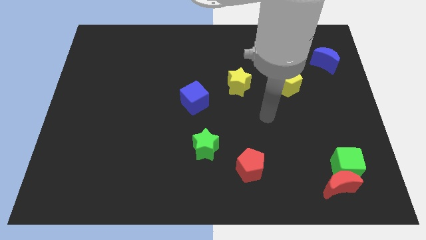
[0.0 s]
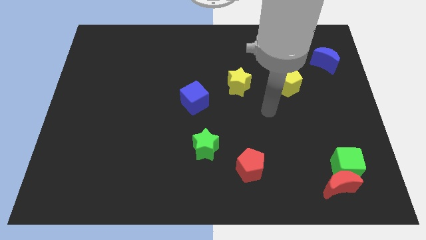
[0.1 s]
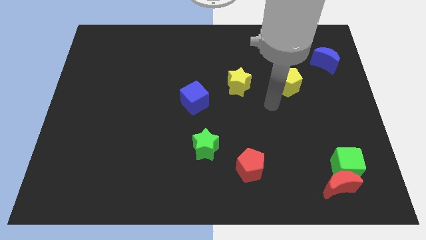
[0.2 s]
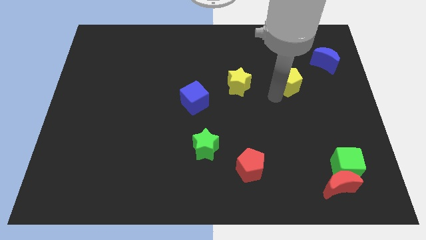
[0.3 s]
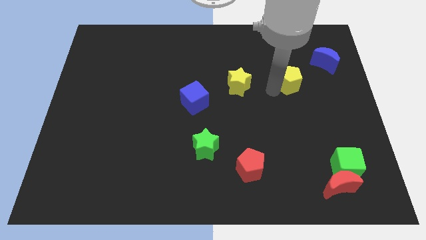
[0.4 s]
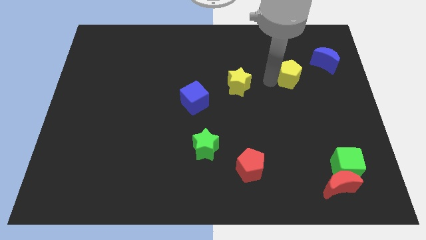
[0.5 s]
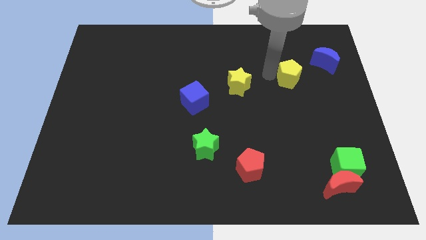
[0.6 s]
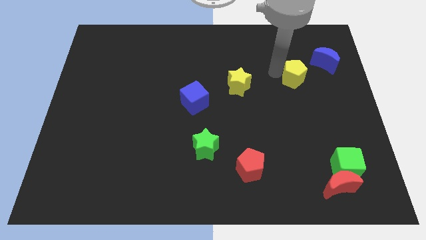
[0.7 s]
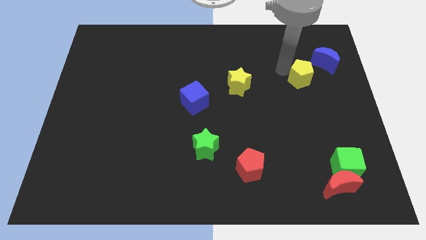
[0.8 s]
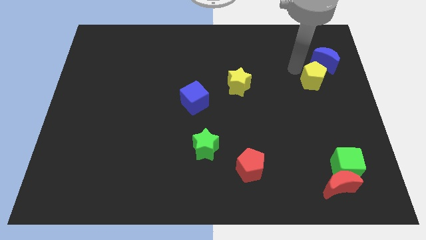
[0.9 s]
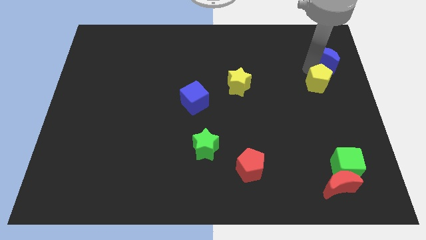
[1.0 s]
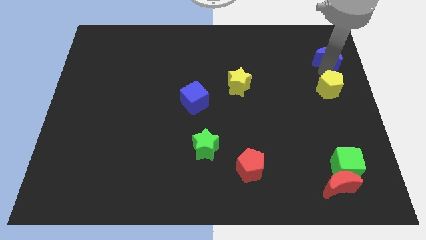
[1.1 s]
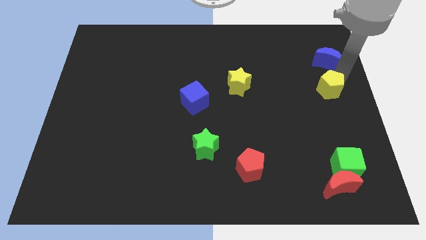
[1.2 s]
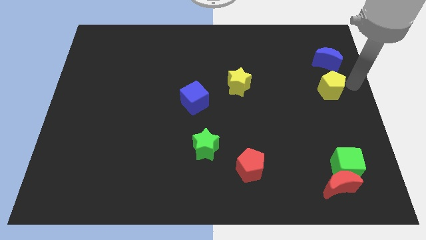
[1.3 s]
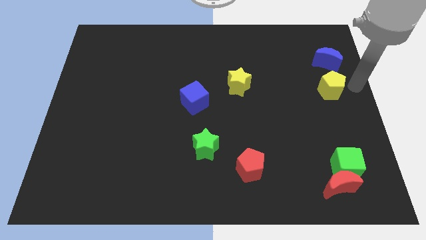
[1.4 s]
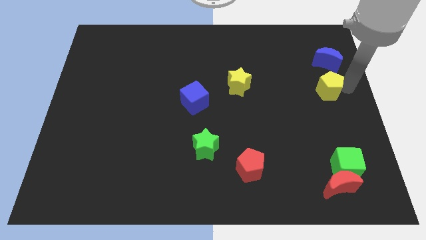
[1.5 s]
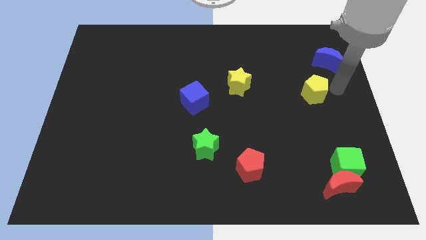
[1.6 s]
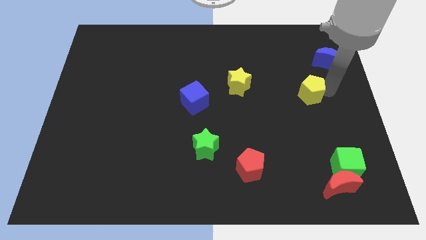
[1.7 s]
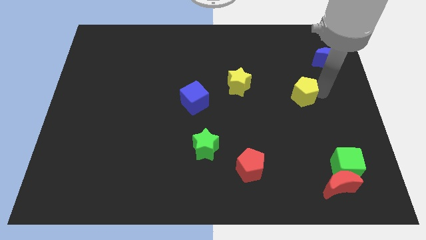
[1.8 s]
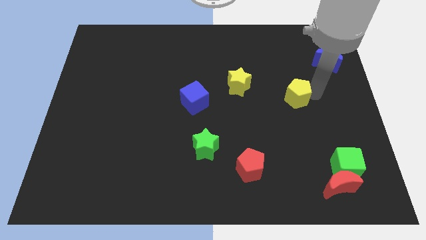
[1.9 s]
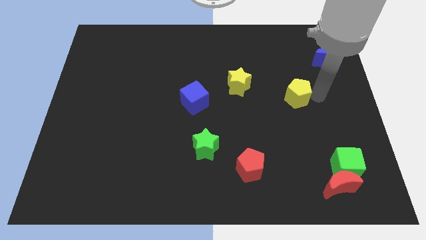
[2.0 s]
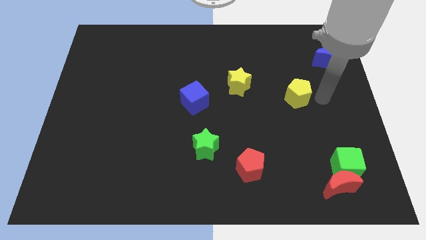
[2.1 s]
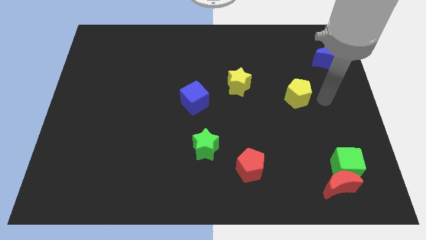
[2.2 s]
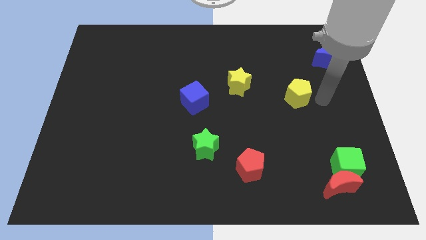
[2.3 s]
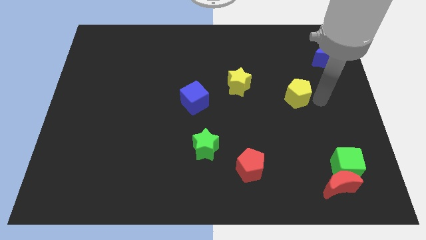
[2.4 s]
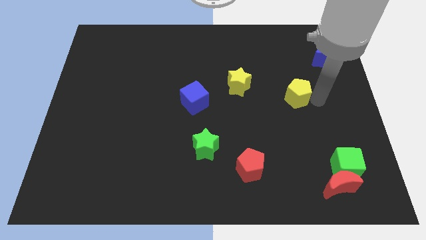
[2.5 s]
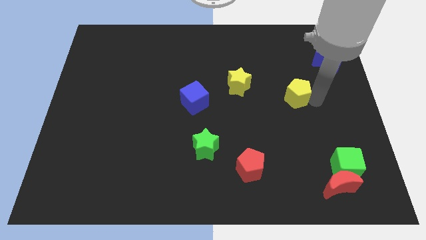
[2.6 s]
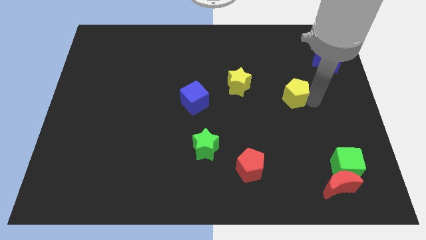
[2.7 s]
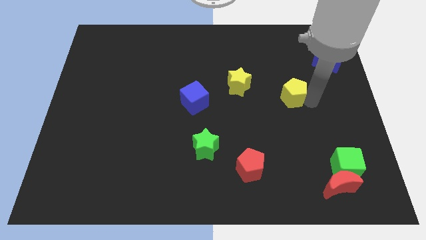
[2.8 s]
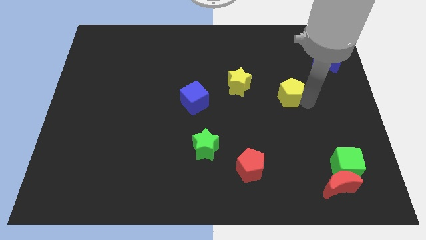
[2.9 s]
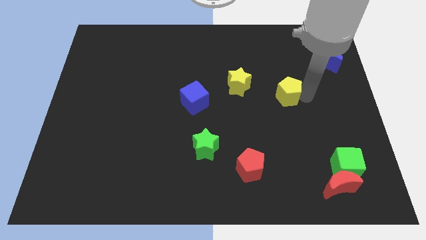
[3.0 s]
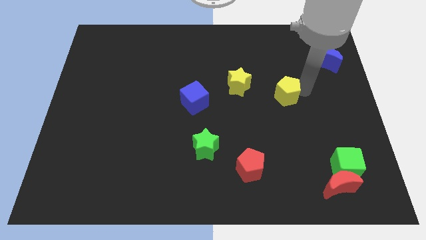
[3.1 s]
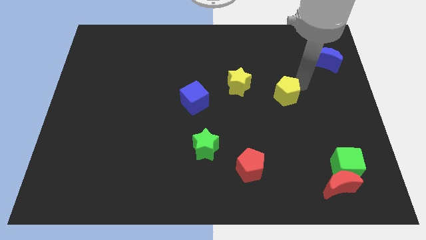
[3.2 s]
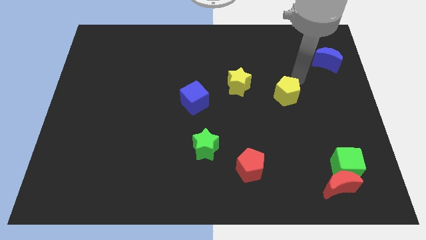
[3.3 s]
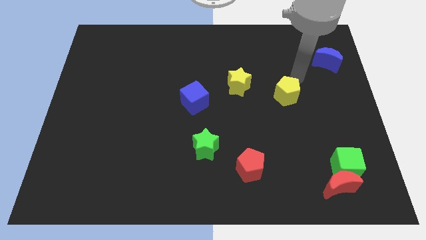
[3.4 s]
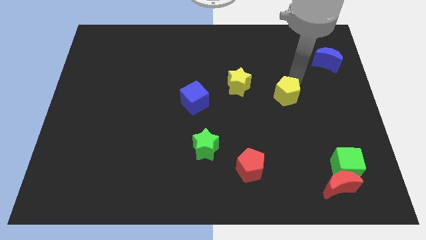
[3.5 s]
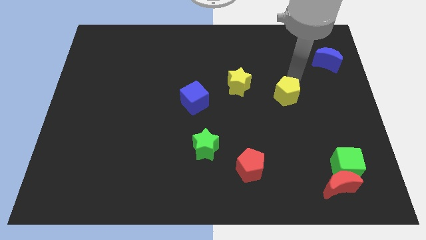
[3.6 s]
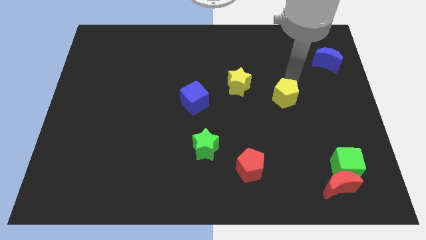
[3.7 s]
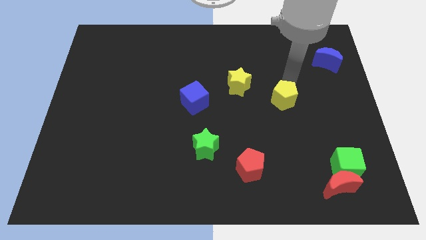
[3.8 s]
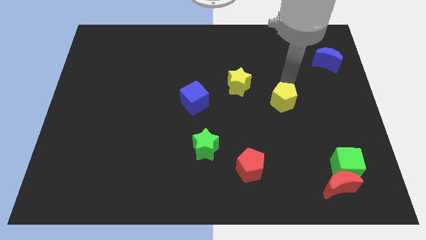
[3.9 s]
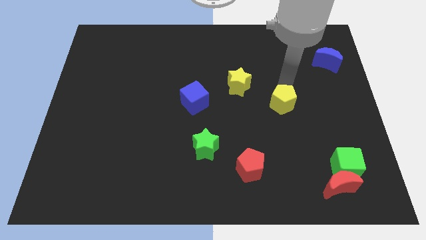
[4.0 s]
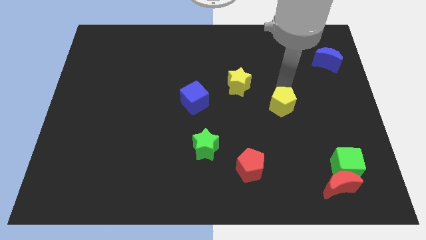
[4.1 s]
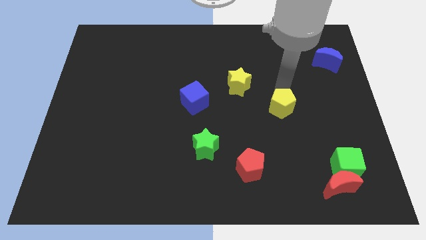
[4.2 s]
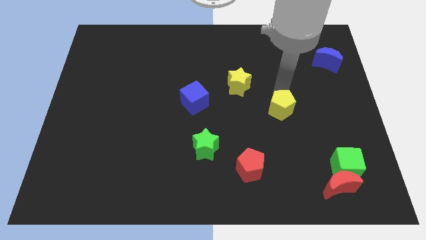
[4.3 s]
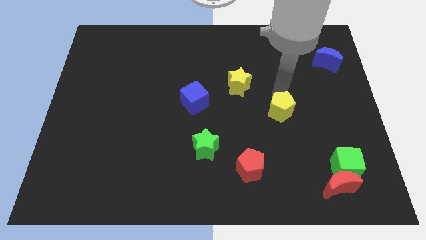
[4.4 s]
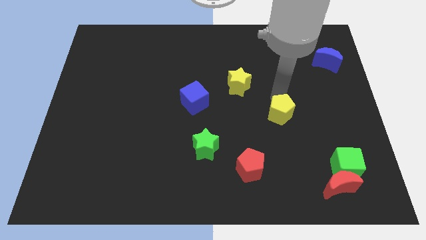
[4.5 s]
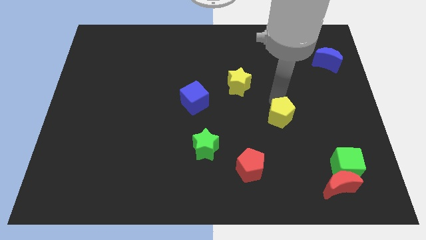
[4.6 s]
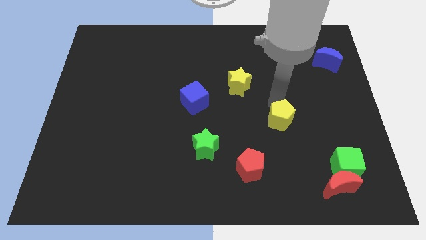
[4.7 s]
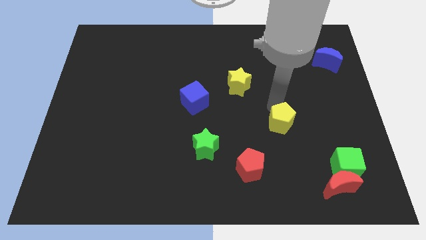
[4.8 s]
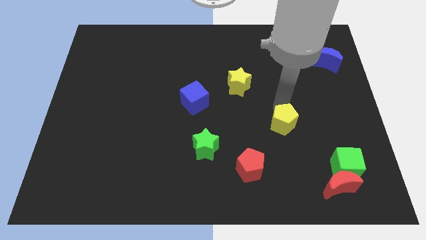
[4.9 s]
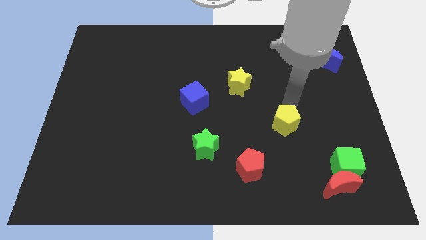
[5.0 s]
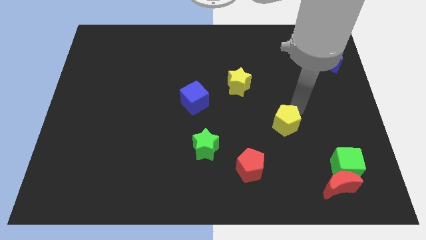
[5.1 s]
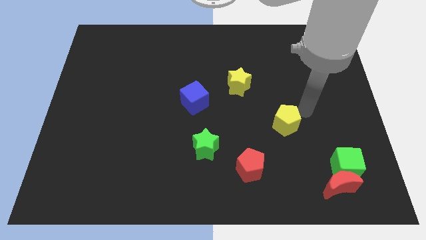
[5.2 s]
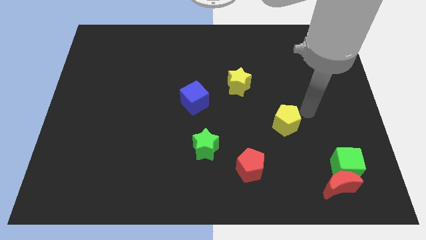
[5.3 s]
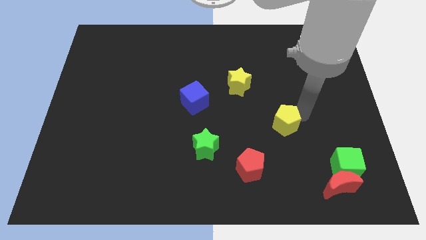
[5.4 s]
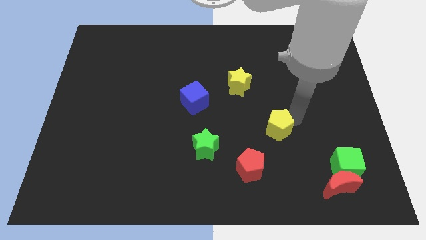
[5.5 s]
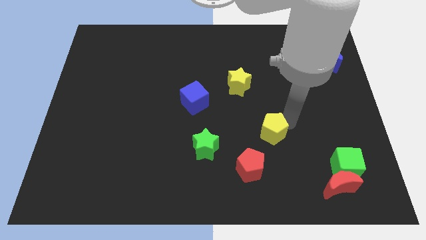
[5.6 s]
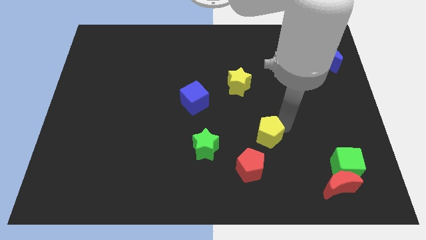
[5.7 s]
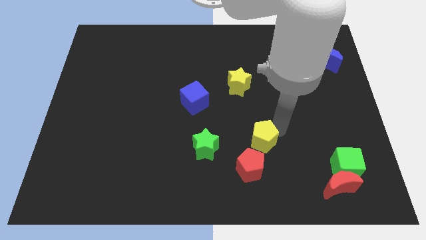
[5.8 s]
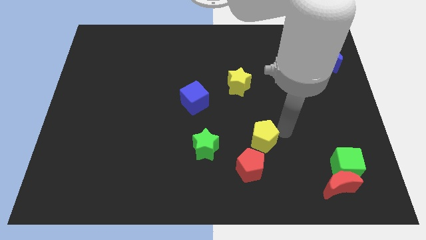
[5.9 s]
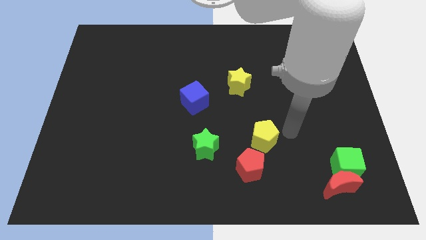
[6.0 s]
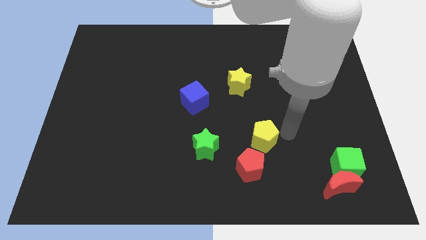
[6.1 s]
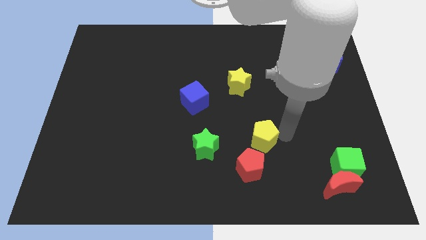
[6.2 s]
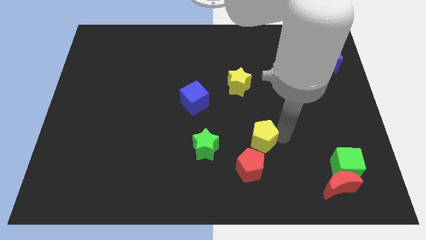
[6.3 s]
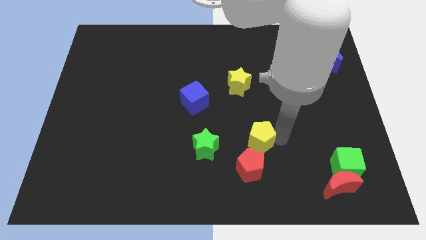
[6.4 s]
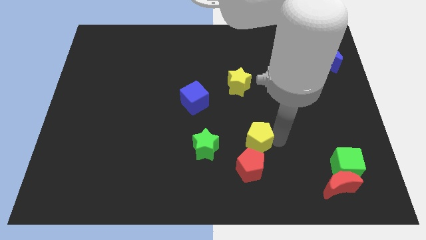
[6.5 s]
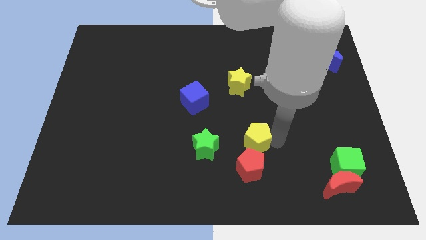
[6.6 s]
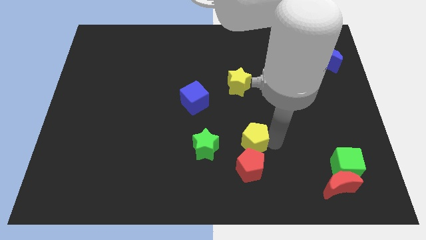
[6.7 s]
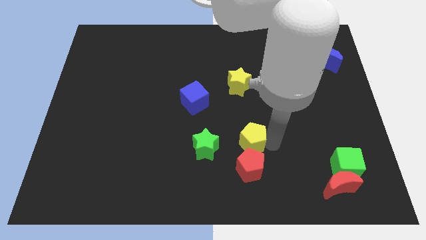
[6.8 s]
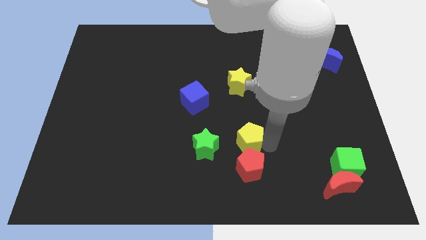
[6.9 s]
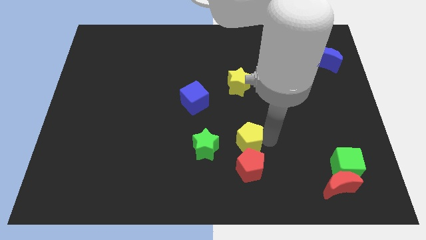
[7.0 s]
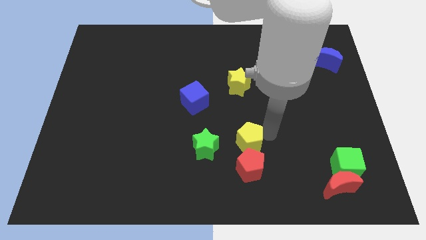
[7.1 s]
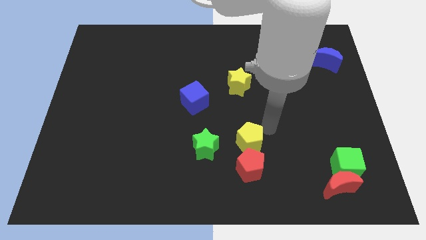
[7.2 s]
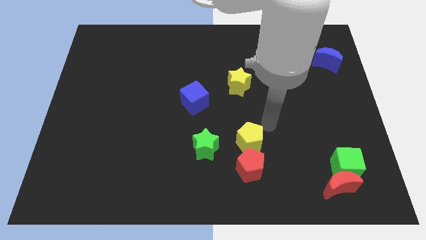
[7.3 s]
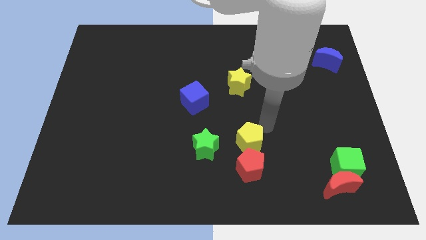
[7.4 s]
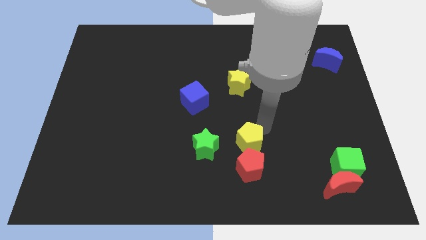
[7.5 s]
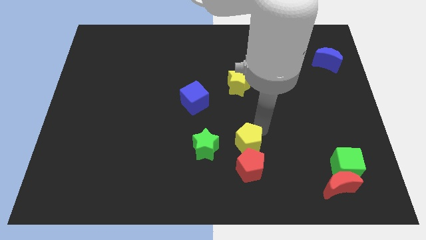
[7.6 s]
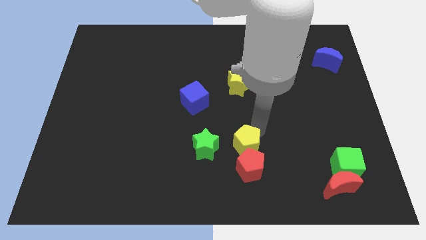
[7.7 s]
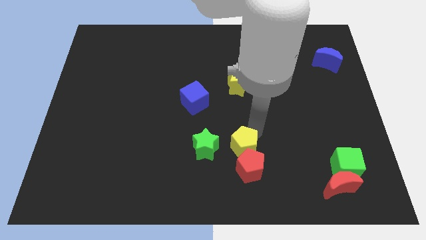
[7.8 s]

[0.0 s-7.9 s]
slide the yellow pentagon downwards and then to the left
